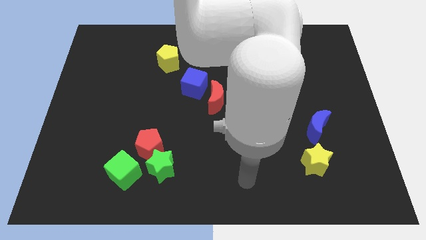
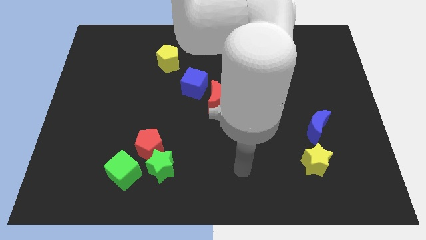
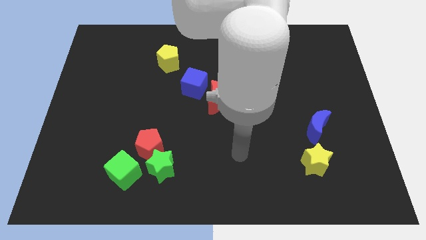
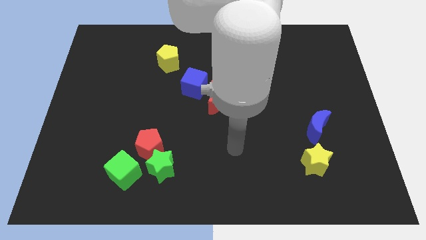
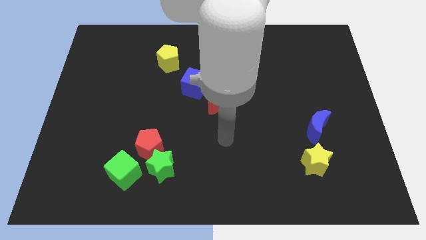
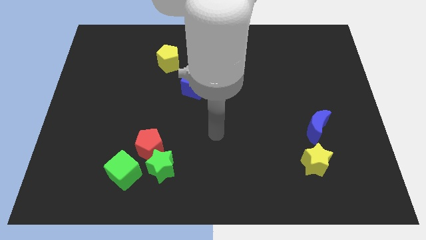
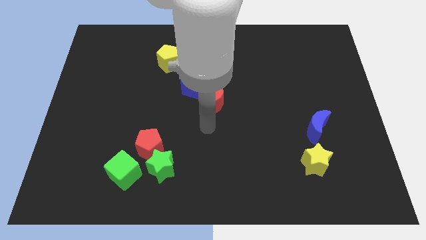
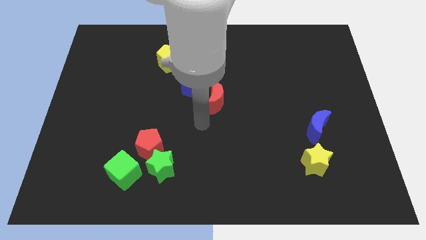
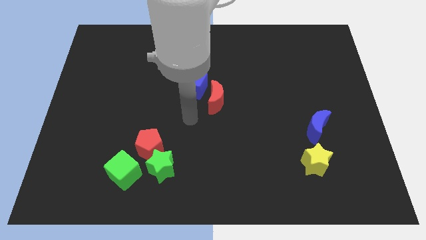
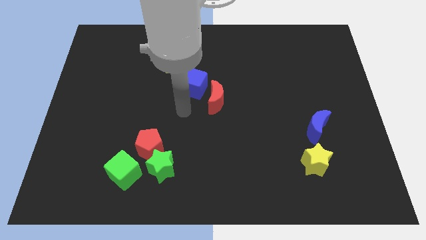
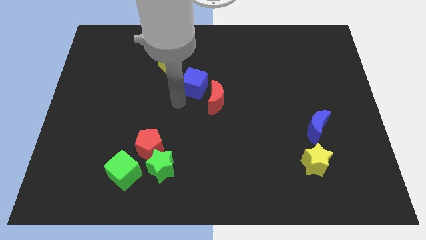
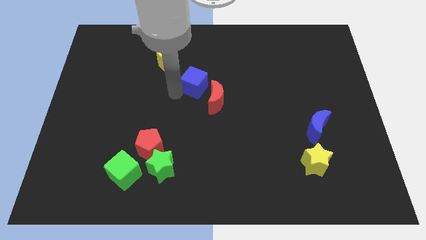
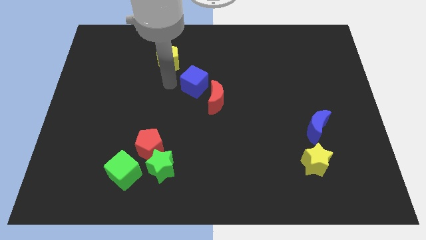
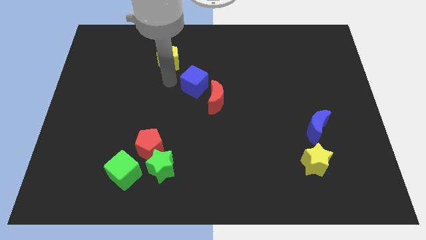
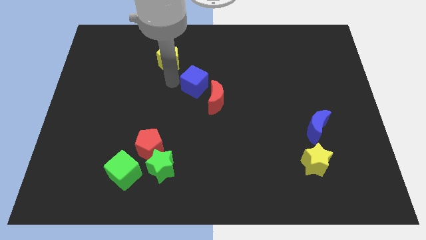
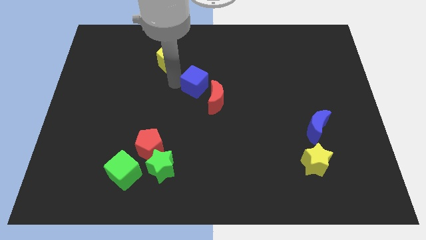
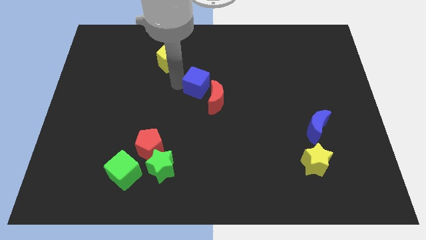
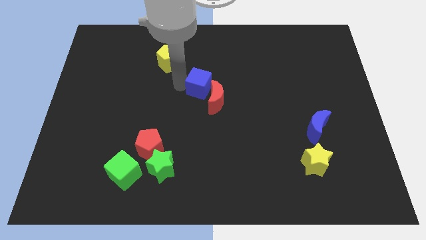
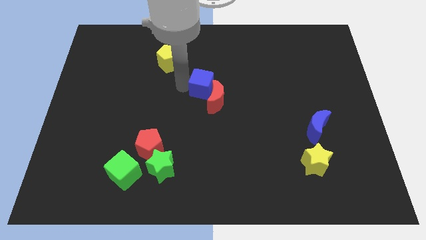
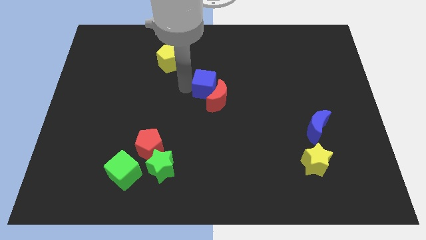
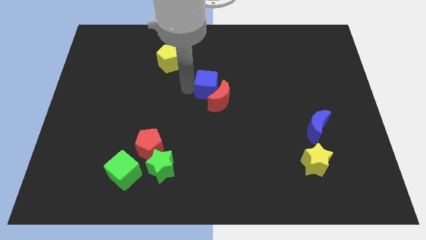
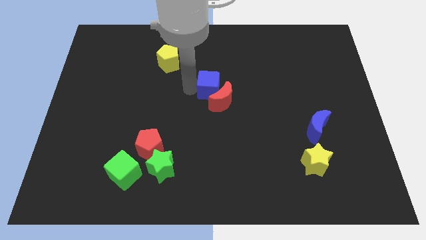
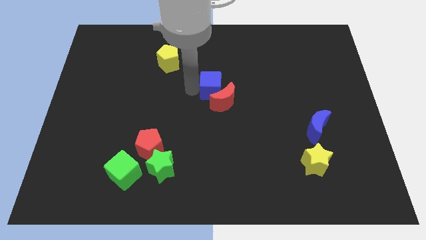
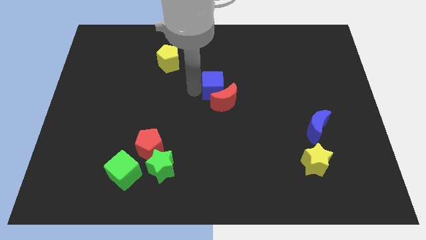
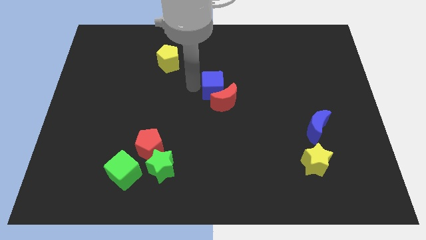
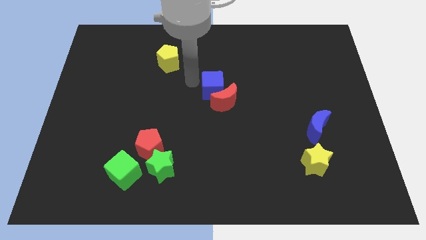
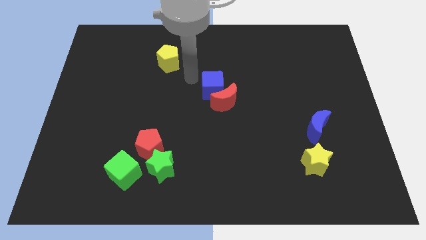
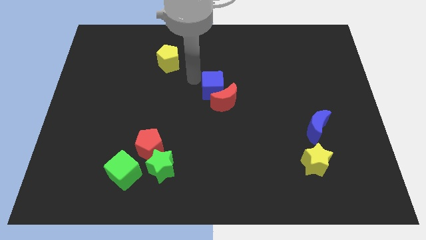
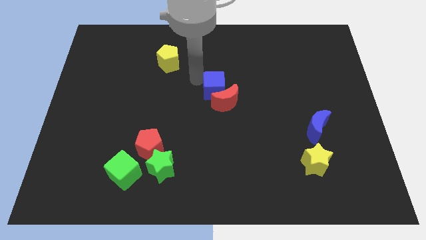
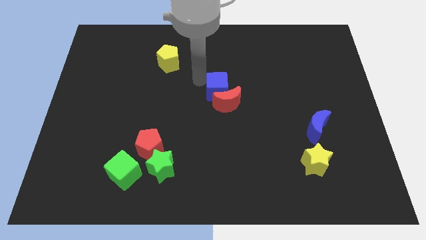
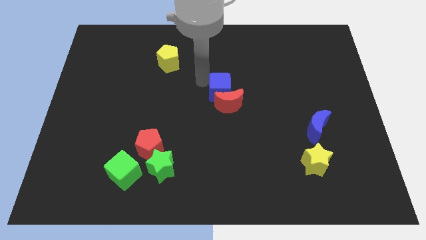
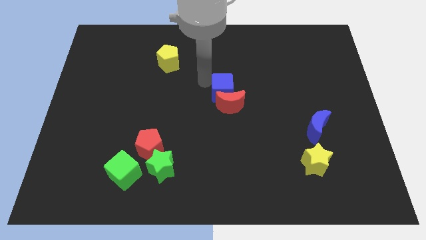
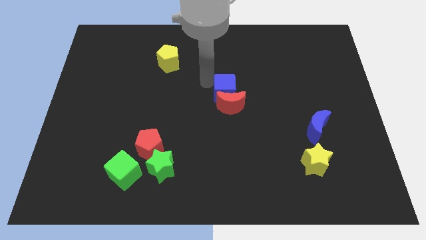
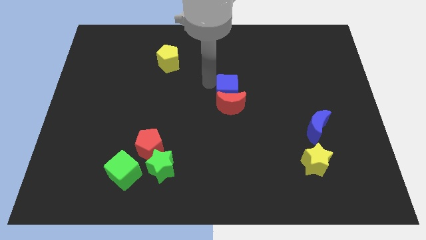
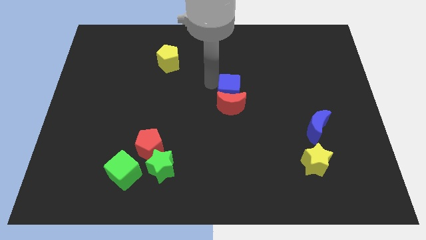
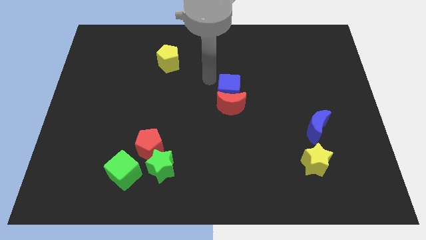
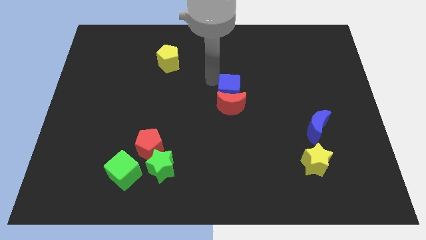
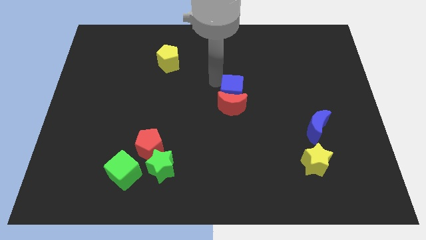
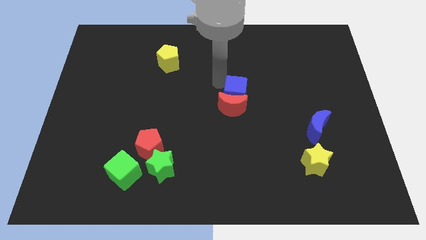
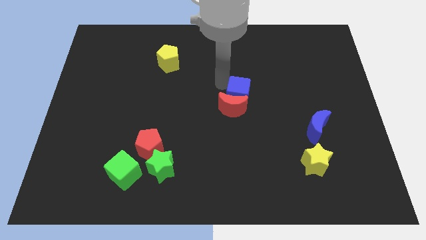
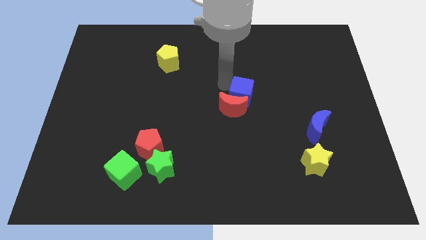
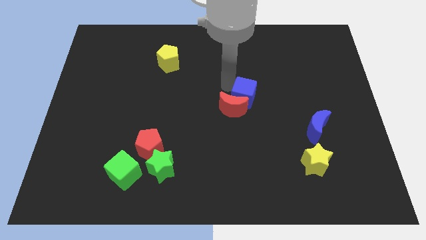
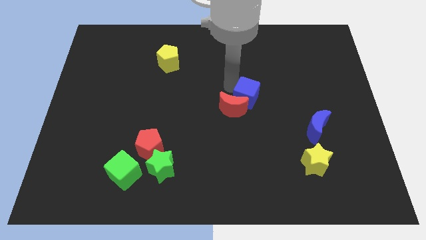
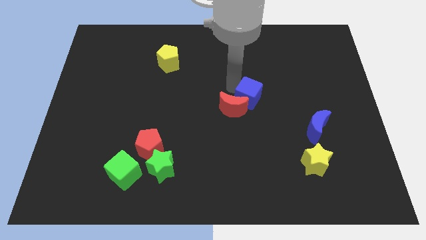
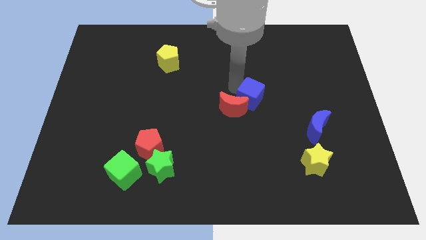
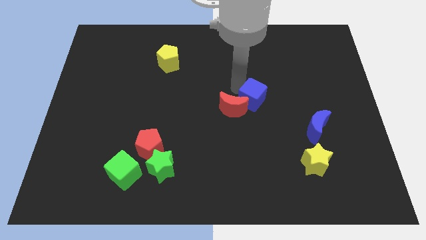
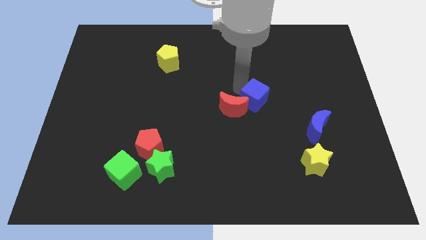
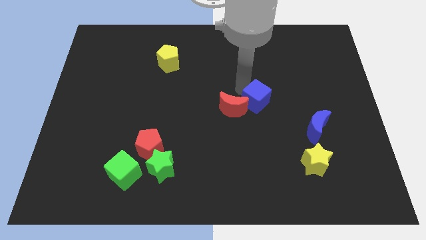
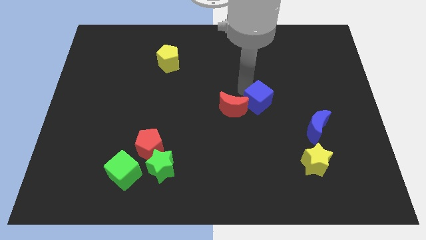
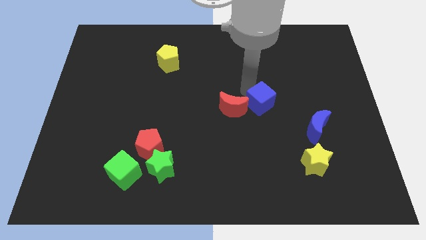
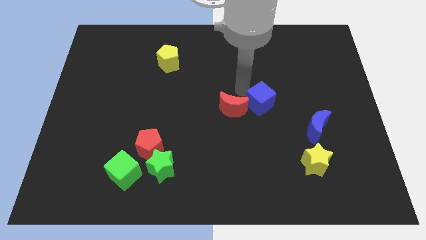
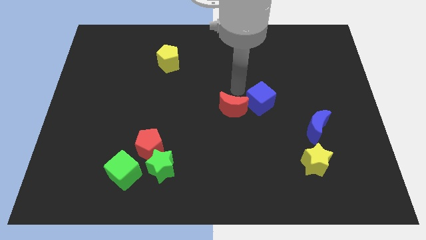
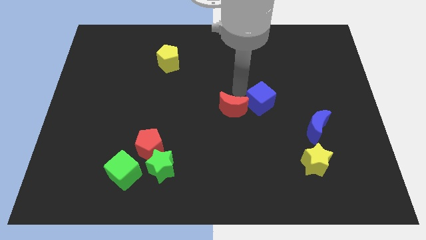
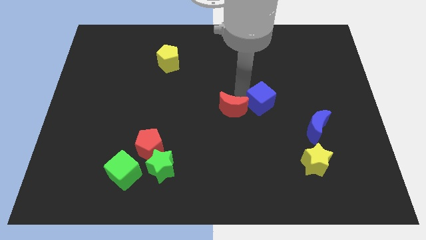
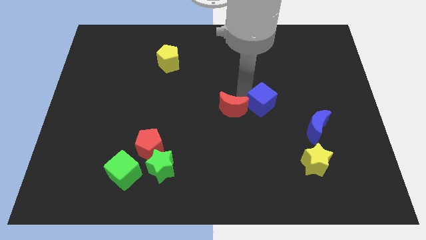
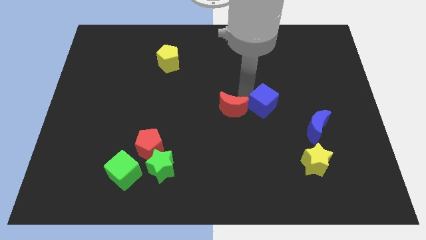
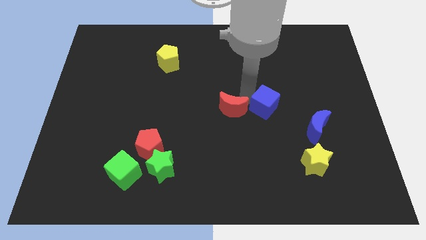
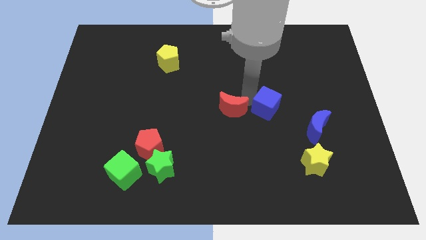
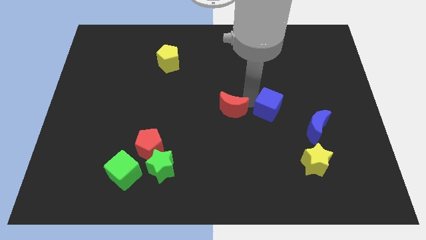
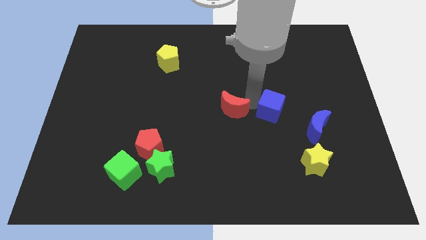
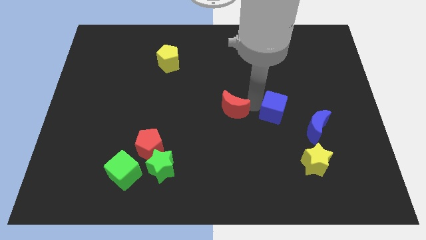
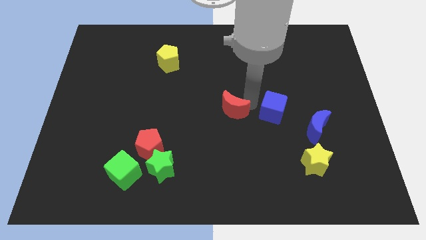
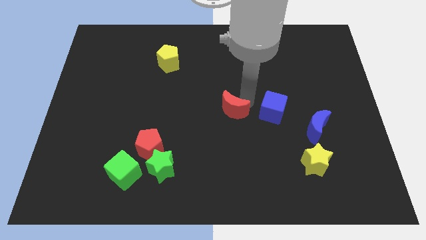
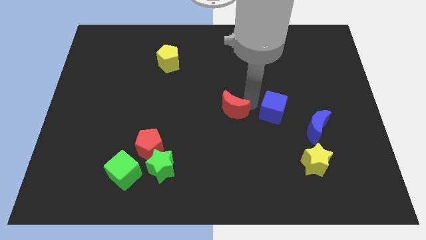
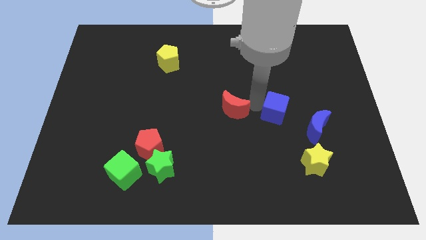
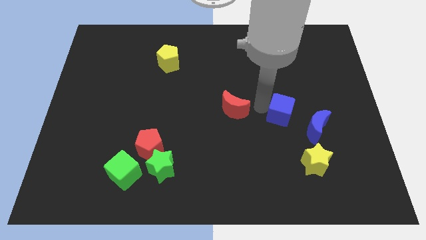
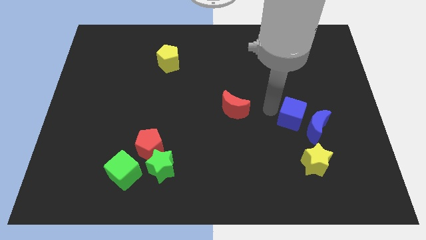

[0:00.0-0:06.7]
push the blue cube to the blue moon
